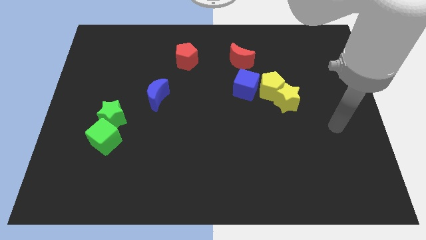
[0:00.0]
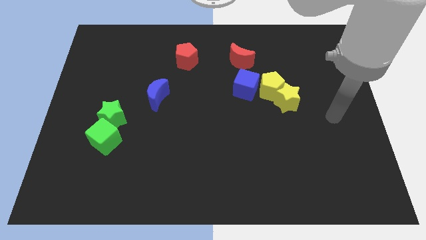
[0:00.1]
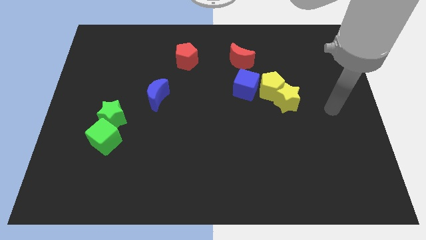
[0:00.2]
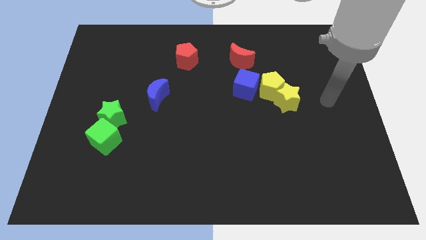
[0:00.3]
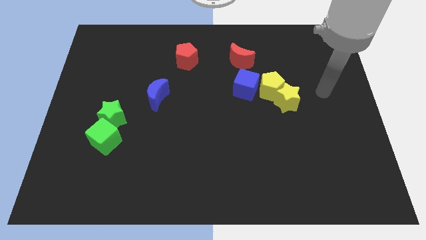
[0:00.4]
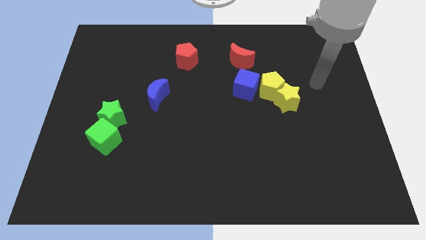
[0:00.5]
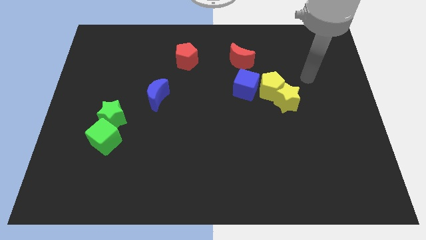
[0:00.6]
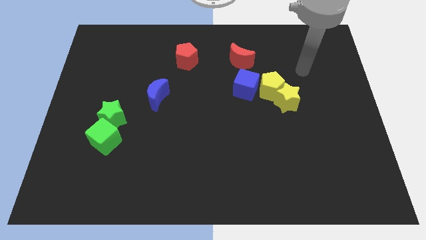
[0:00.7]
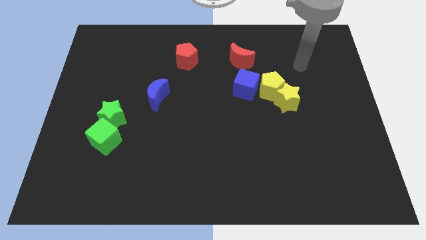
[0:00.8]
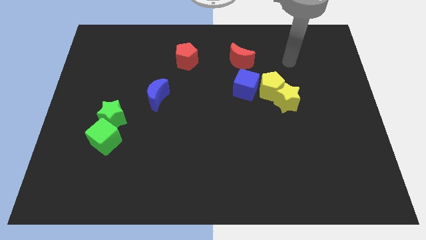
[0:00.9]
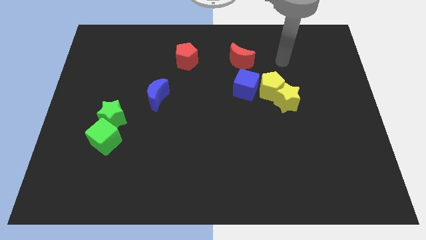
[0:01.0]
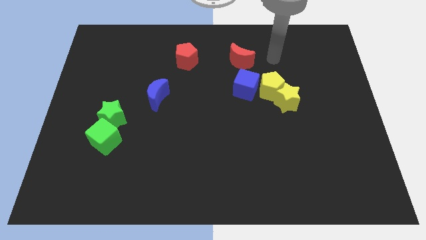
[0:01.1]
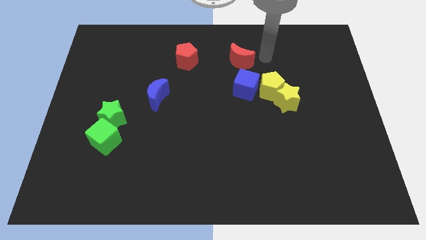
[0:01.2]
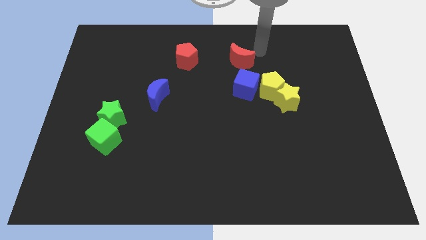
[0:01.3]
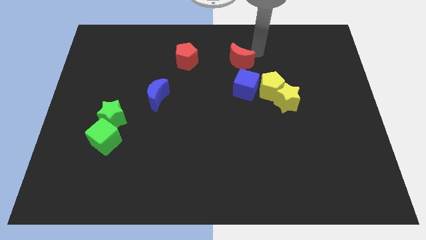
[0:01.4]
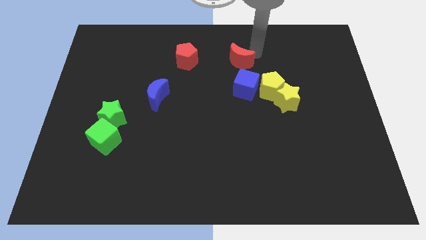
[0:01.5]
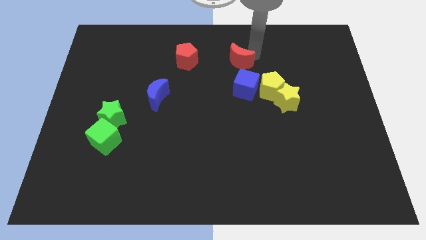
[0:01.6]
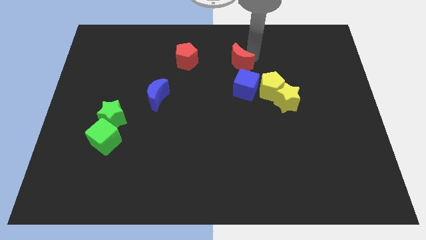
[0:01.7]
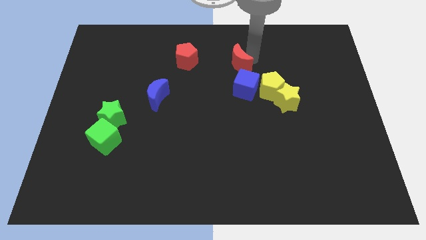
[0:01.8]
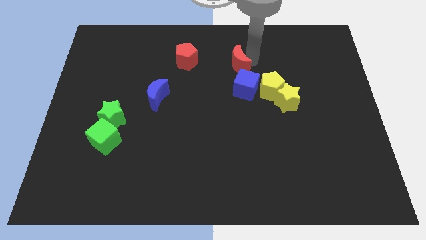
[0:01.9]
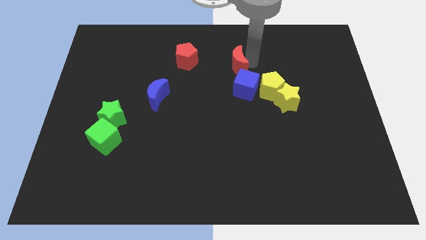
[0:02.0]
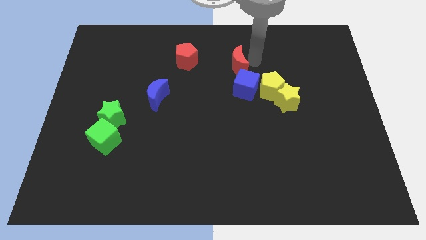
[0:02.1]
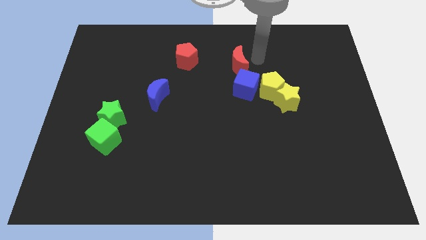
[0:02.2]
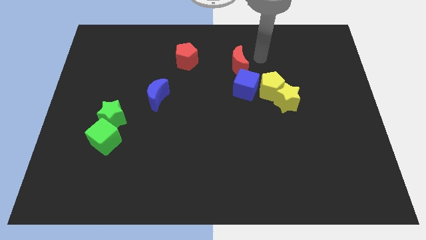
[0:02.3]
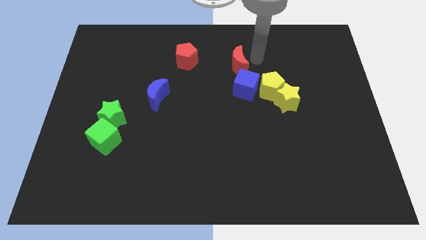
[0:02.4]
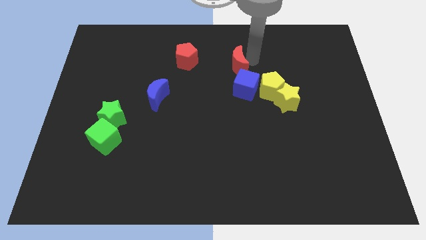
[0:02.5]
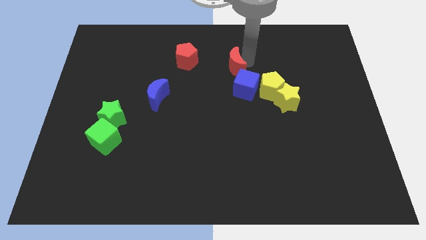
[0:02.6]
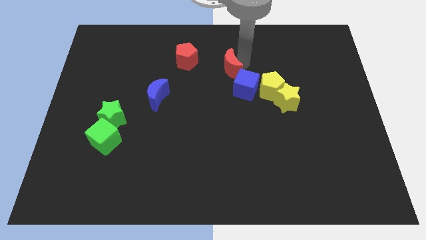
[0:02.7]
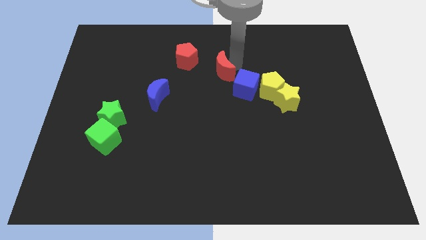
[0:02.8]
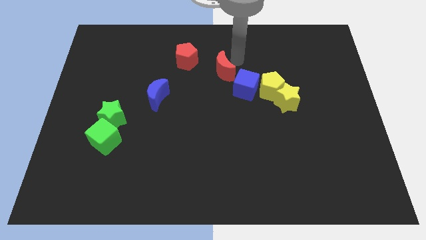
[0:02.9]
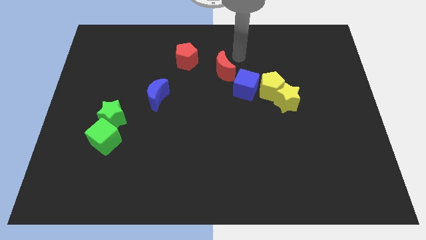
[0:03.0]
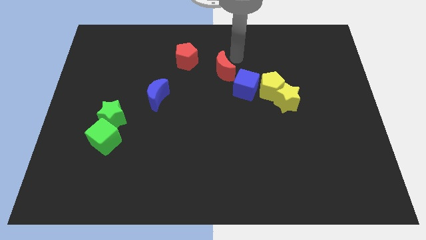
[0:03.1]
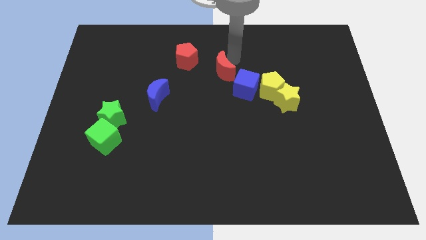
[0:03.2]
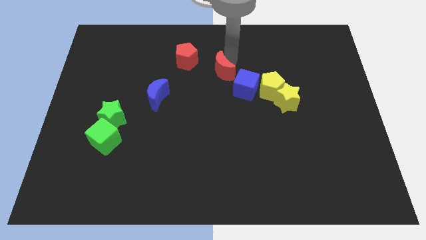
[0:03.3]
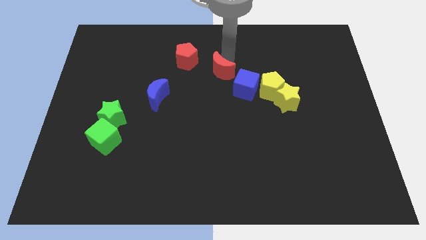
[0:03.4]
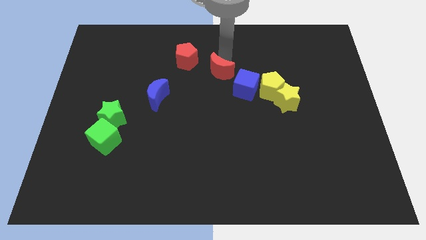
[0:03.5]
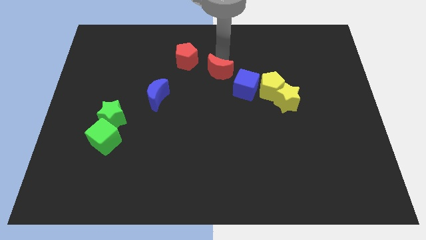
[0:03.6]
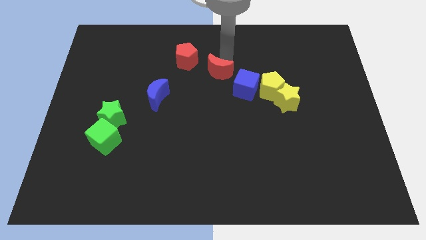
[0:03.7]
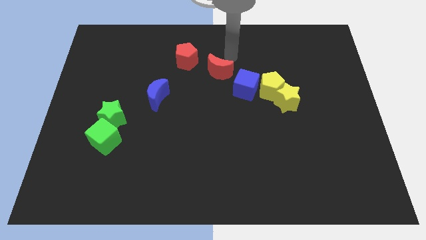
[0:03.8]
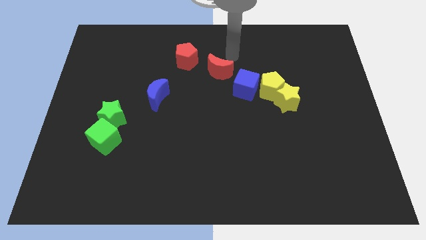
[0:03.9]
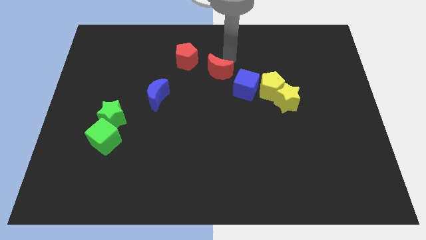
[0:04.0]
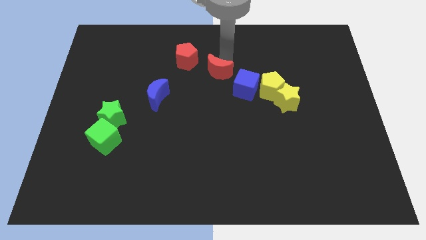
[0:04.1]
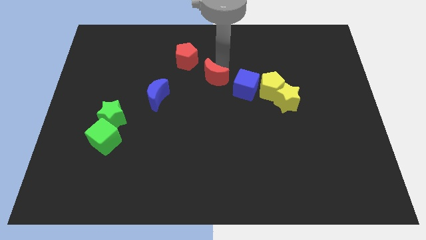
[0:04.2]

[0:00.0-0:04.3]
move the red moon left of the blue cube

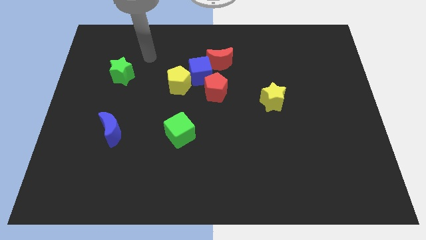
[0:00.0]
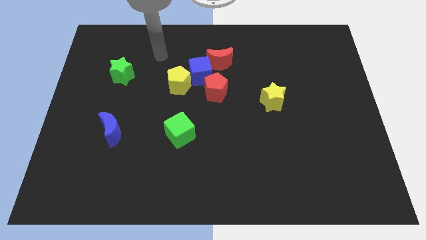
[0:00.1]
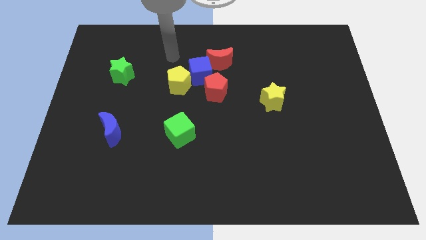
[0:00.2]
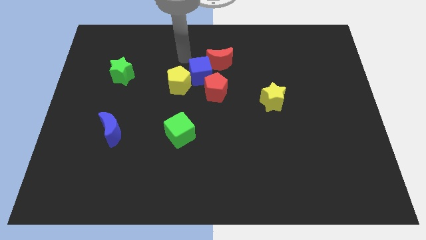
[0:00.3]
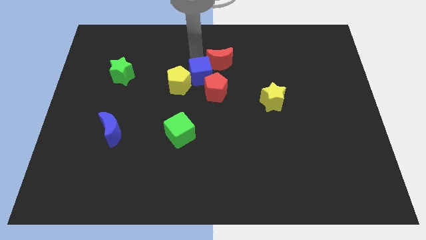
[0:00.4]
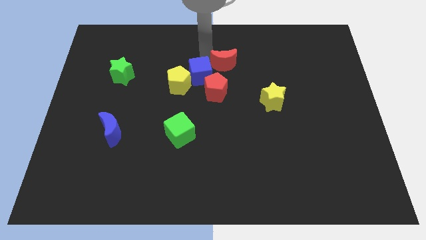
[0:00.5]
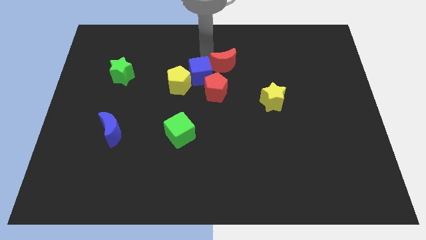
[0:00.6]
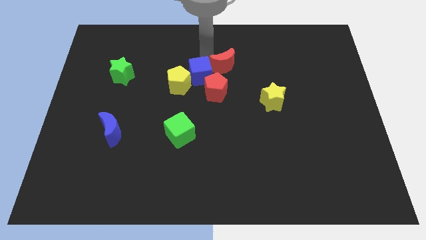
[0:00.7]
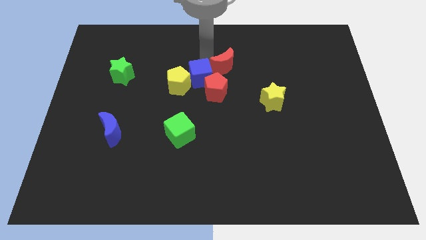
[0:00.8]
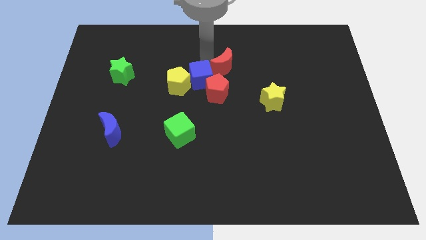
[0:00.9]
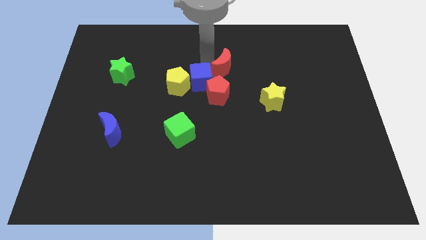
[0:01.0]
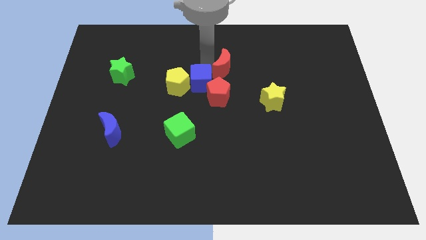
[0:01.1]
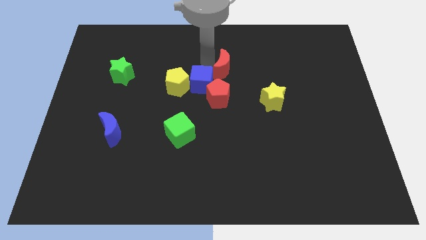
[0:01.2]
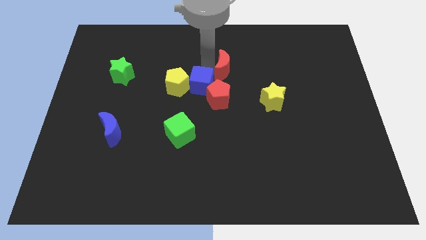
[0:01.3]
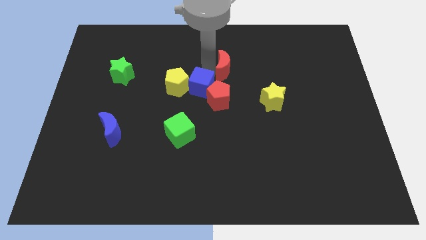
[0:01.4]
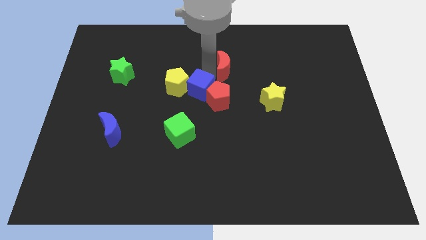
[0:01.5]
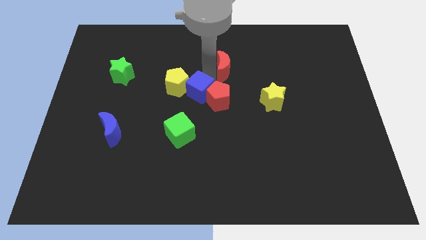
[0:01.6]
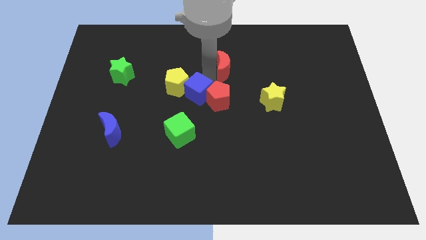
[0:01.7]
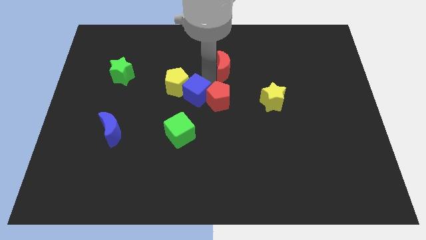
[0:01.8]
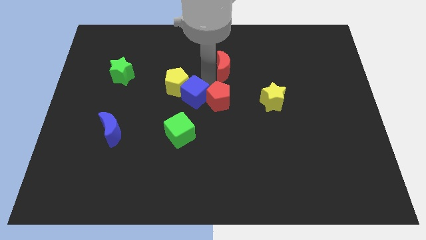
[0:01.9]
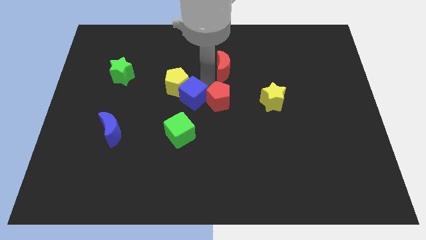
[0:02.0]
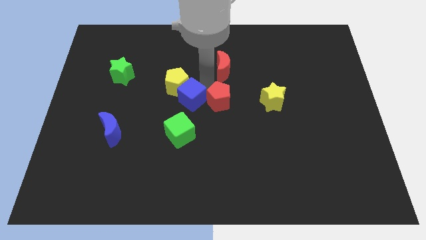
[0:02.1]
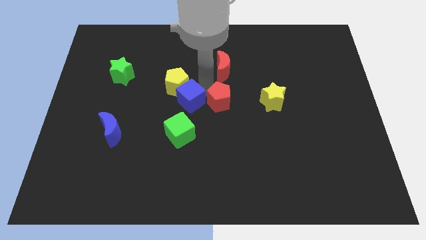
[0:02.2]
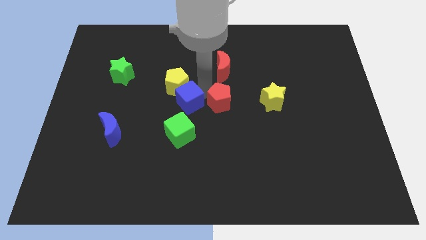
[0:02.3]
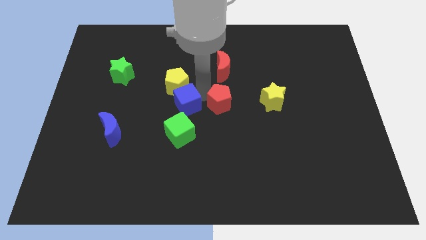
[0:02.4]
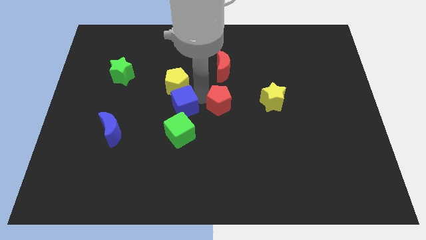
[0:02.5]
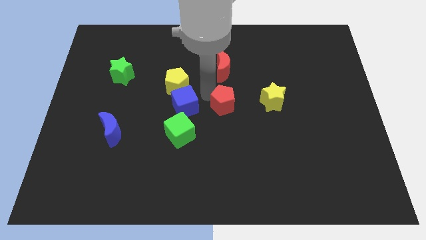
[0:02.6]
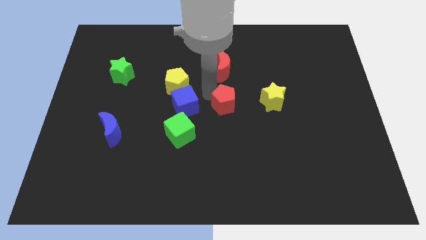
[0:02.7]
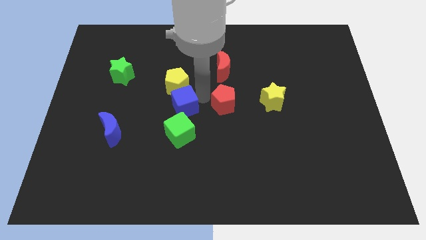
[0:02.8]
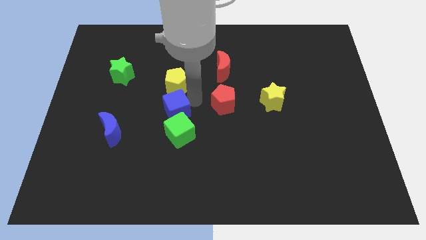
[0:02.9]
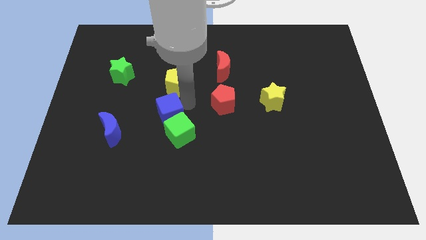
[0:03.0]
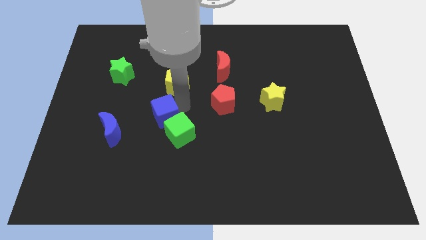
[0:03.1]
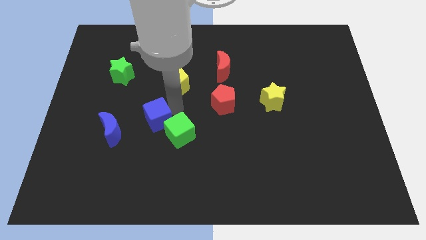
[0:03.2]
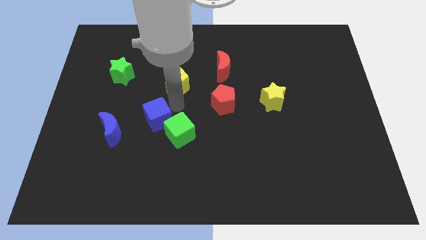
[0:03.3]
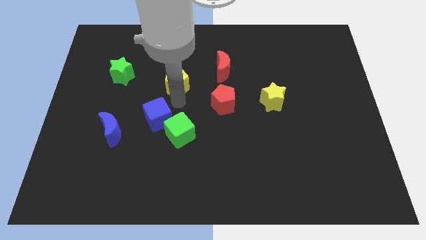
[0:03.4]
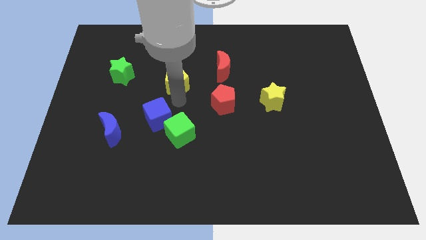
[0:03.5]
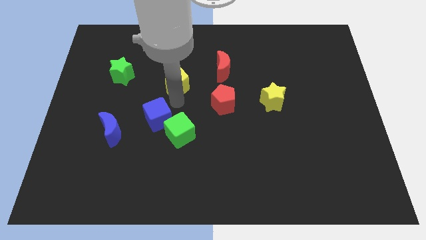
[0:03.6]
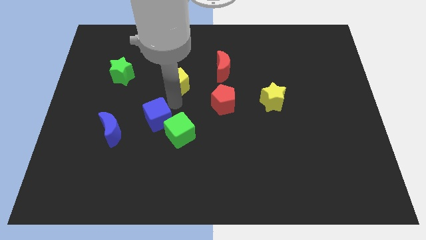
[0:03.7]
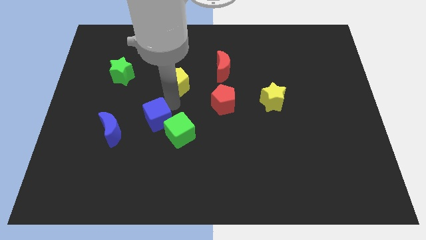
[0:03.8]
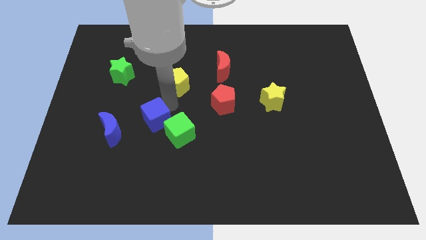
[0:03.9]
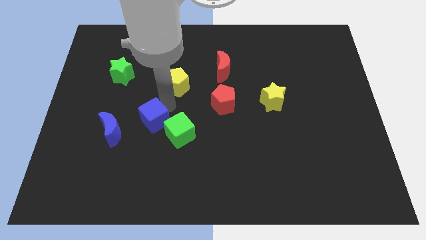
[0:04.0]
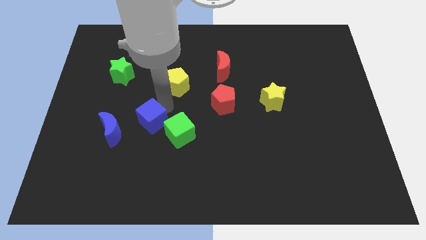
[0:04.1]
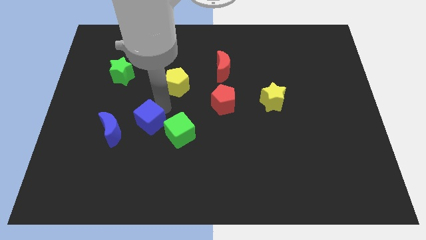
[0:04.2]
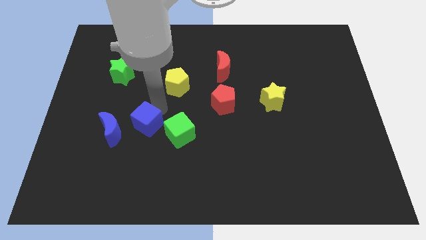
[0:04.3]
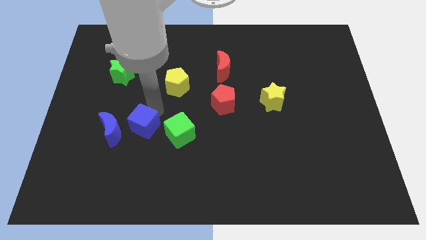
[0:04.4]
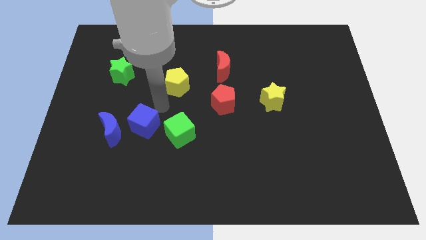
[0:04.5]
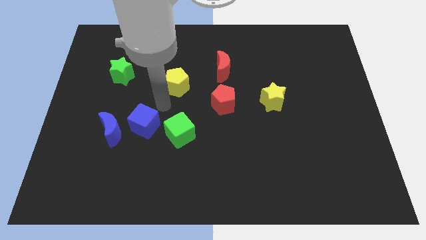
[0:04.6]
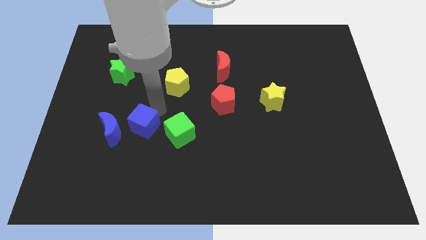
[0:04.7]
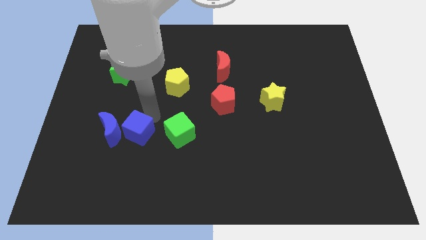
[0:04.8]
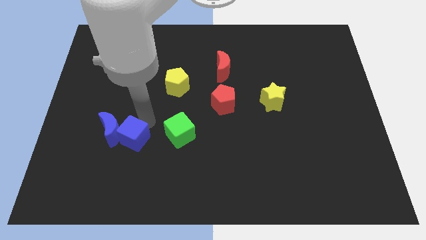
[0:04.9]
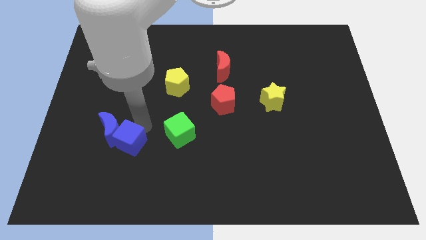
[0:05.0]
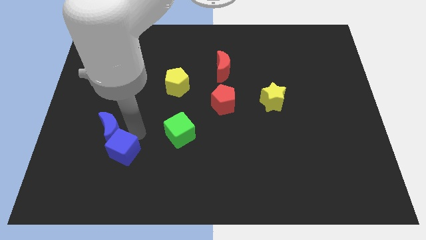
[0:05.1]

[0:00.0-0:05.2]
move the blue cube below the blue moon
